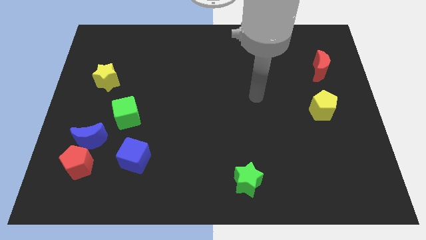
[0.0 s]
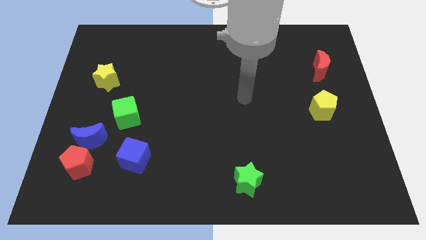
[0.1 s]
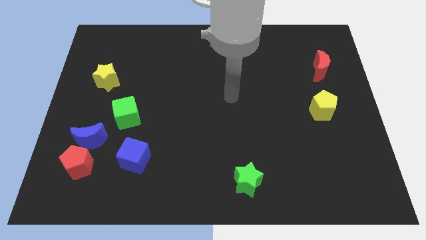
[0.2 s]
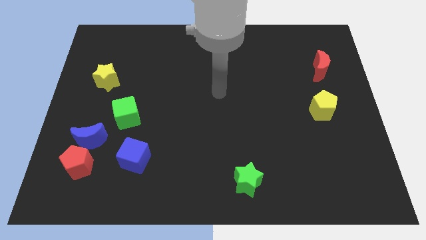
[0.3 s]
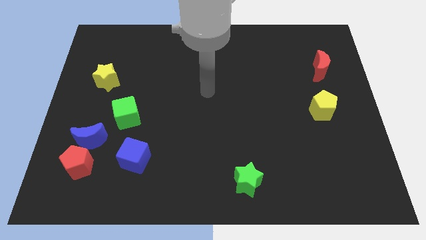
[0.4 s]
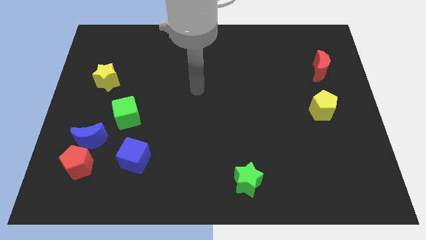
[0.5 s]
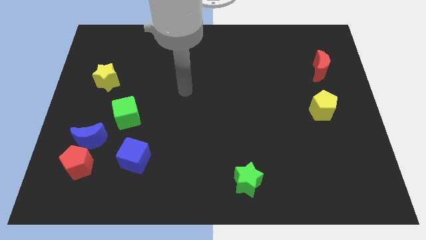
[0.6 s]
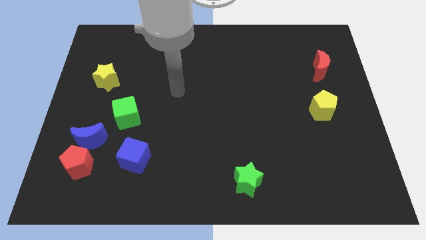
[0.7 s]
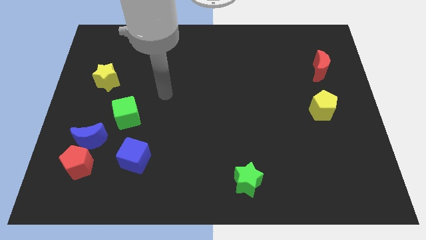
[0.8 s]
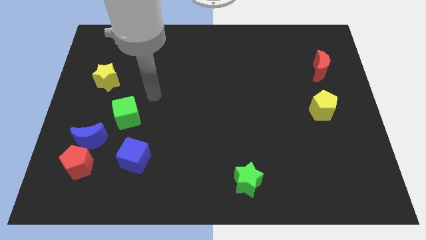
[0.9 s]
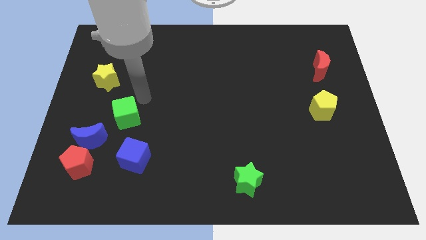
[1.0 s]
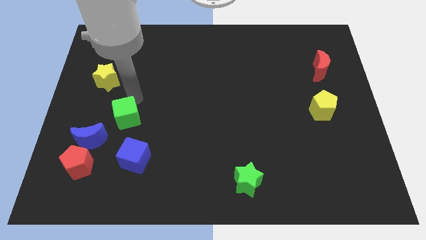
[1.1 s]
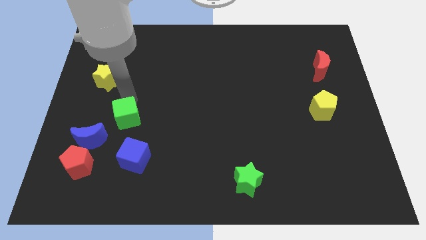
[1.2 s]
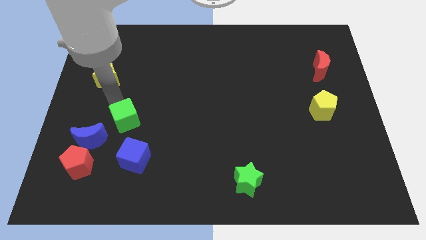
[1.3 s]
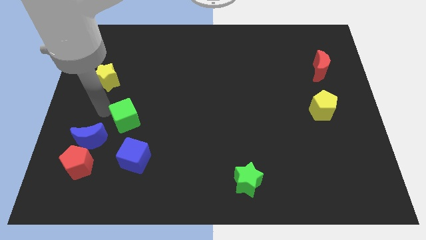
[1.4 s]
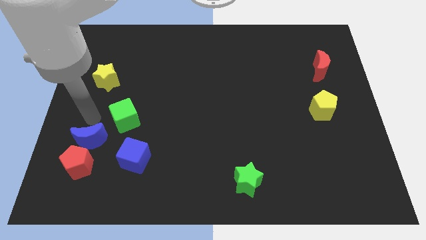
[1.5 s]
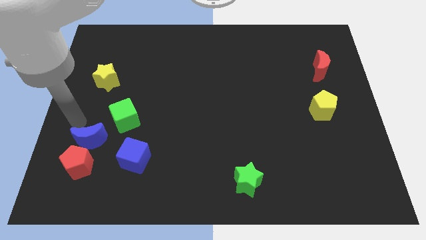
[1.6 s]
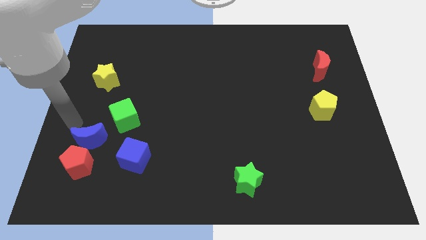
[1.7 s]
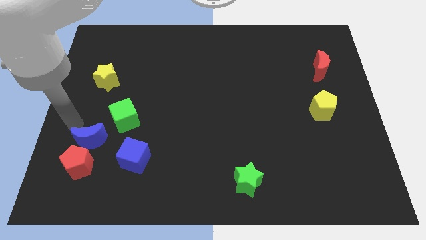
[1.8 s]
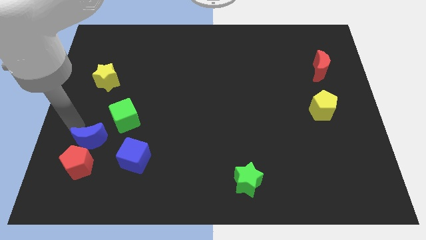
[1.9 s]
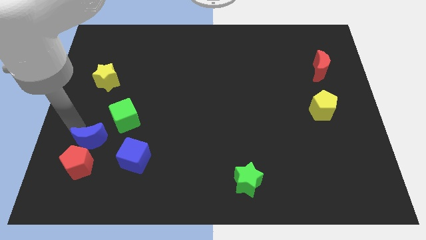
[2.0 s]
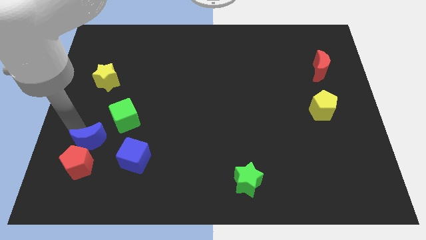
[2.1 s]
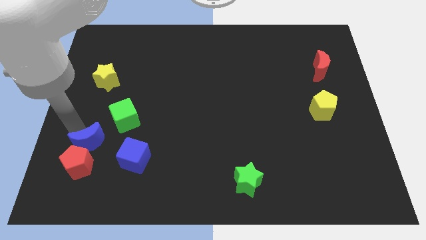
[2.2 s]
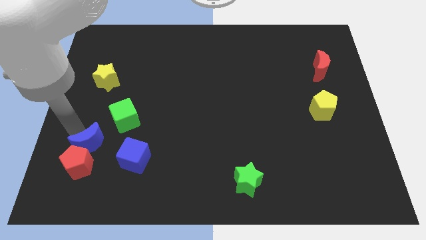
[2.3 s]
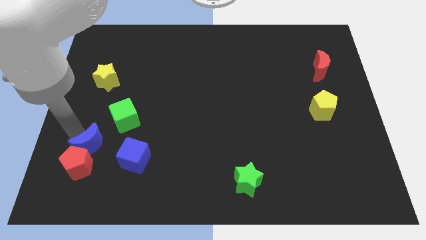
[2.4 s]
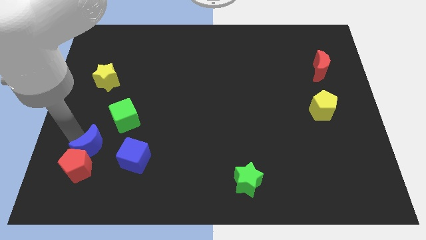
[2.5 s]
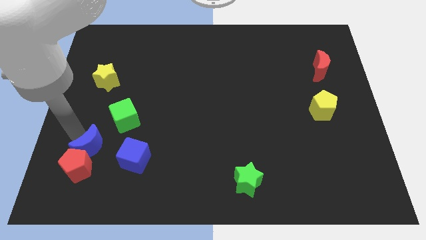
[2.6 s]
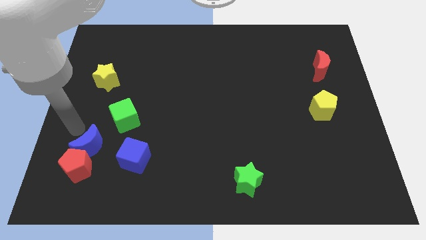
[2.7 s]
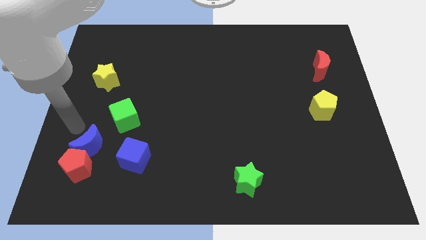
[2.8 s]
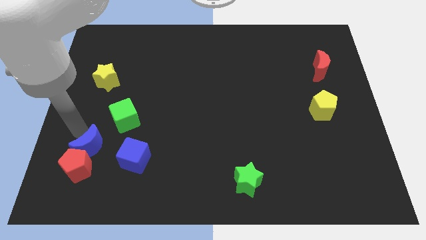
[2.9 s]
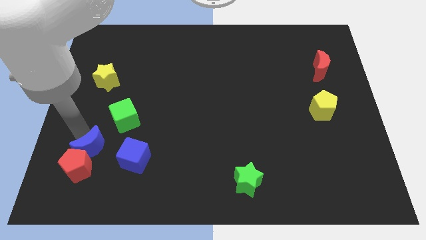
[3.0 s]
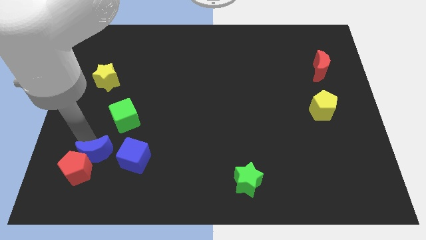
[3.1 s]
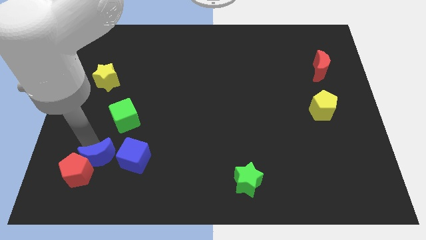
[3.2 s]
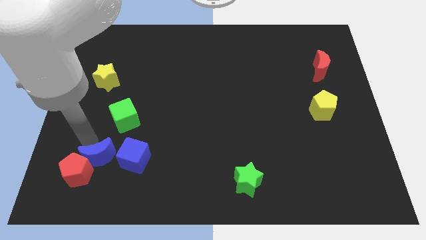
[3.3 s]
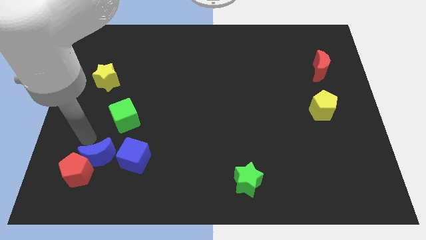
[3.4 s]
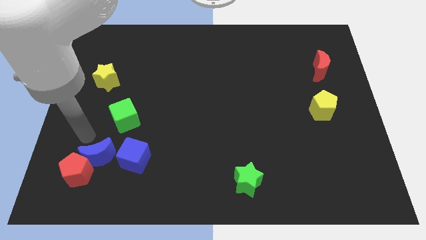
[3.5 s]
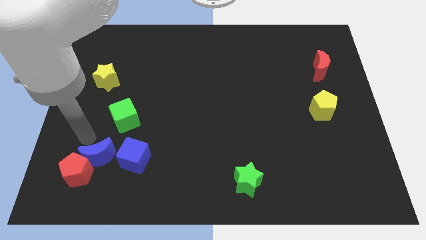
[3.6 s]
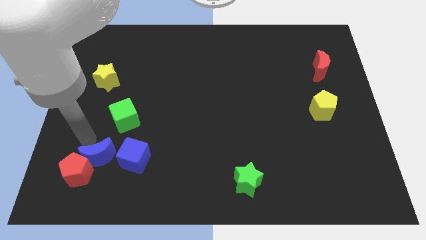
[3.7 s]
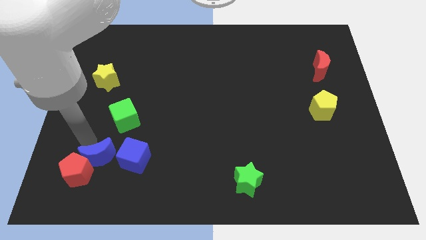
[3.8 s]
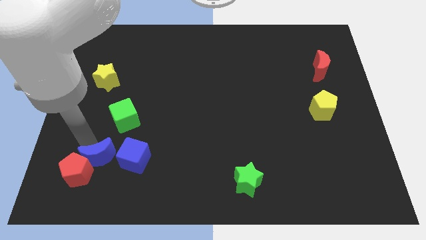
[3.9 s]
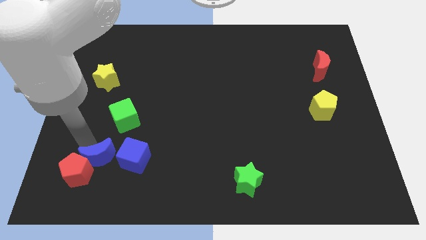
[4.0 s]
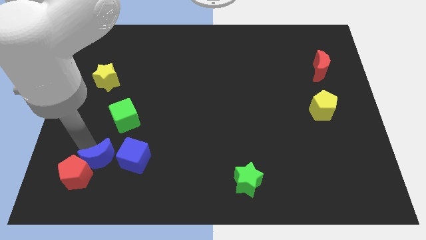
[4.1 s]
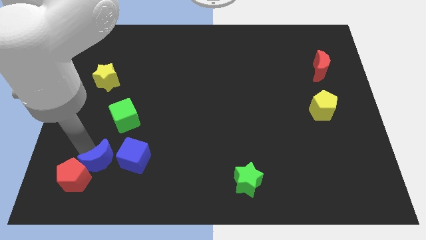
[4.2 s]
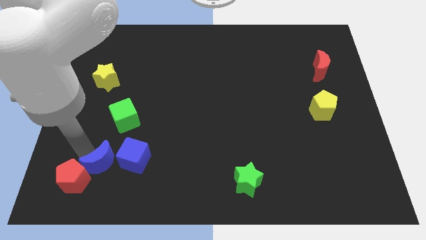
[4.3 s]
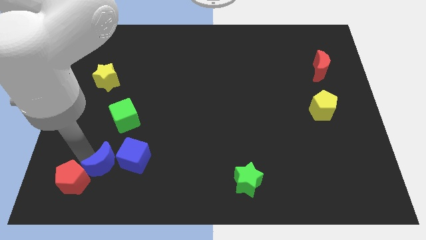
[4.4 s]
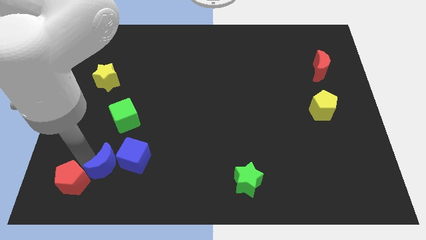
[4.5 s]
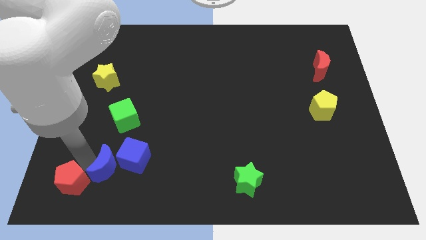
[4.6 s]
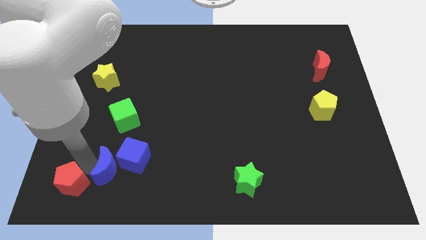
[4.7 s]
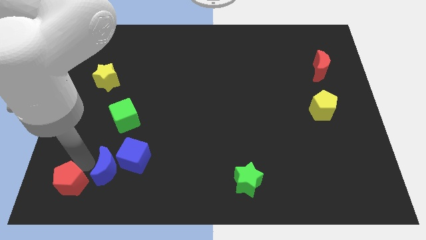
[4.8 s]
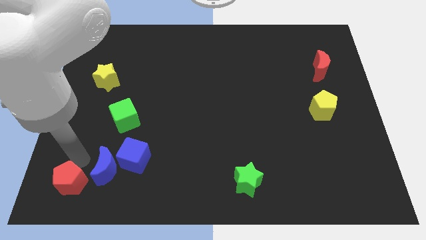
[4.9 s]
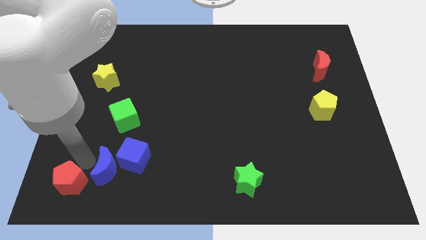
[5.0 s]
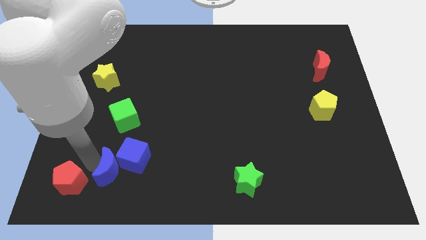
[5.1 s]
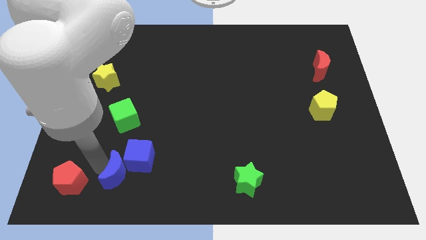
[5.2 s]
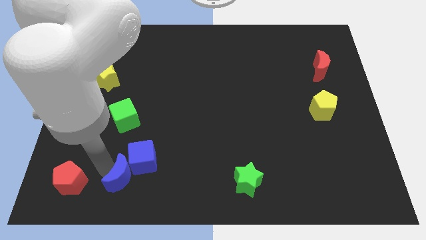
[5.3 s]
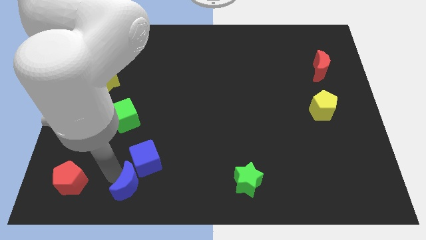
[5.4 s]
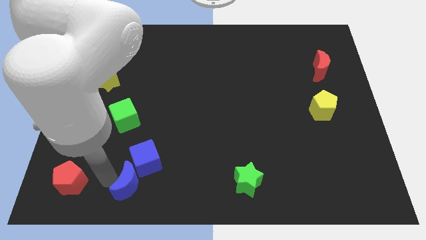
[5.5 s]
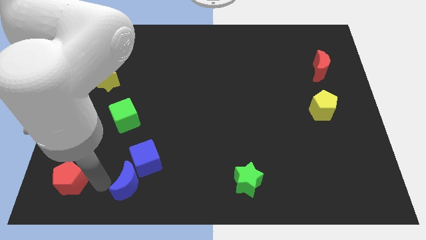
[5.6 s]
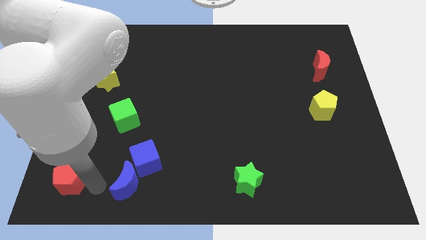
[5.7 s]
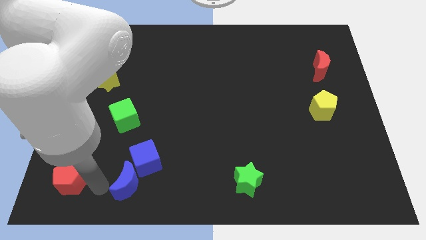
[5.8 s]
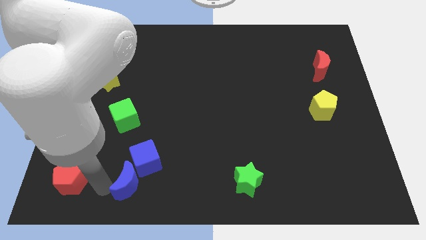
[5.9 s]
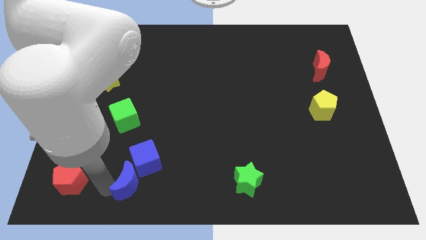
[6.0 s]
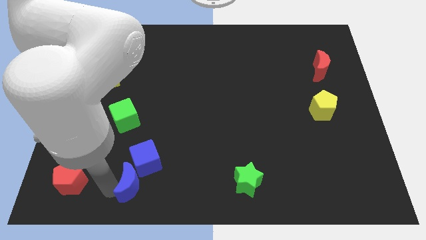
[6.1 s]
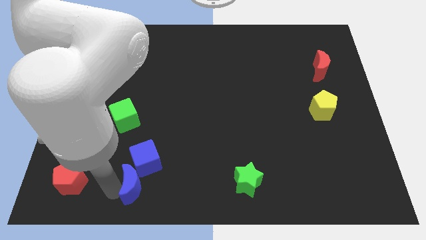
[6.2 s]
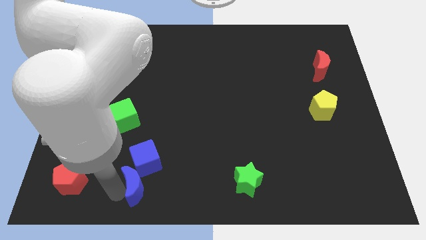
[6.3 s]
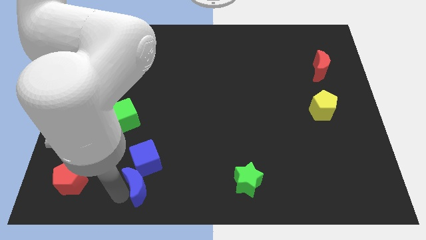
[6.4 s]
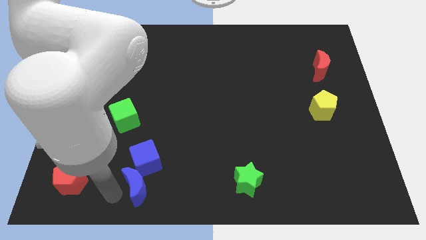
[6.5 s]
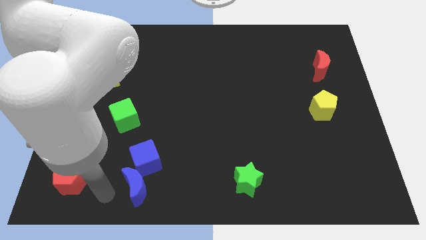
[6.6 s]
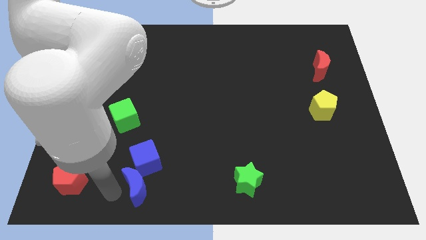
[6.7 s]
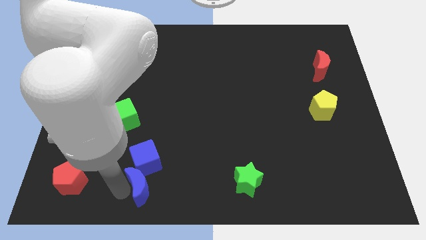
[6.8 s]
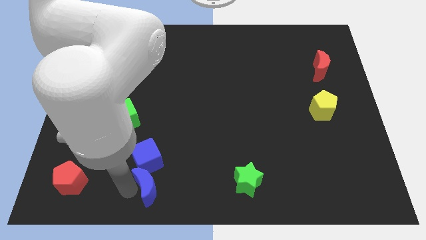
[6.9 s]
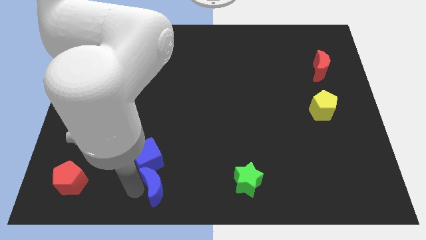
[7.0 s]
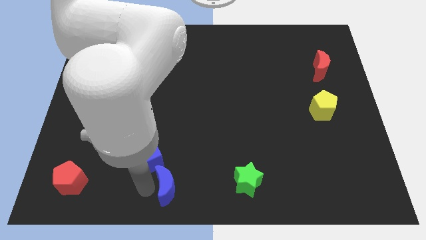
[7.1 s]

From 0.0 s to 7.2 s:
move the blue moon left of the green star
